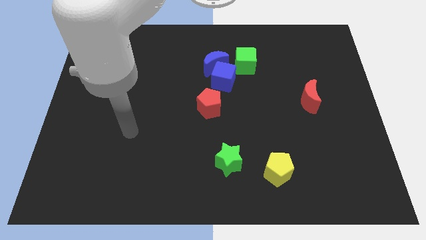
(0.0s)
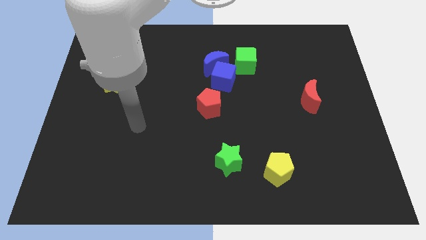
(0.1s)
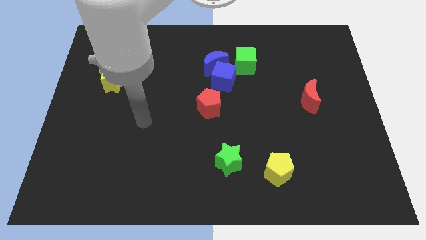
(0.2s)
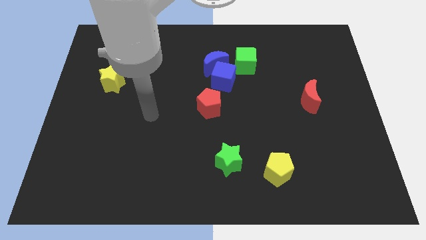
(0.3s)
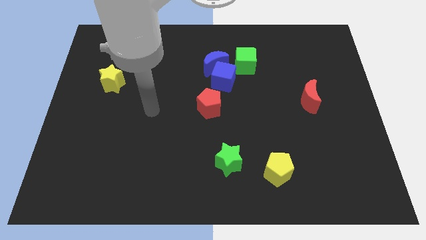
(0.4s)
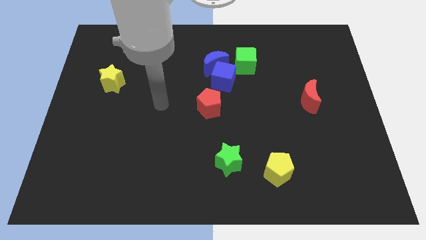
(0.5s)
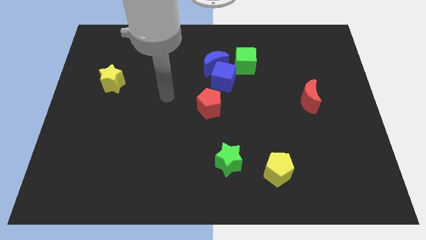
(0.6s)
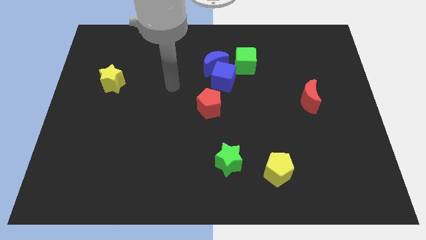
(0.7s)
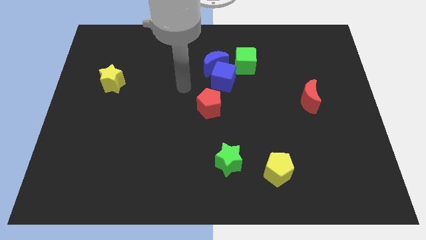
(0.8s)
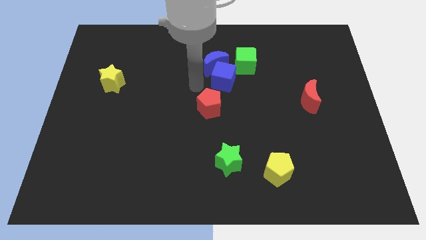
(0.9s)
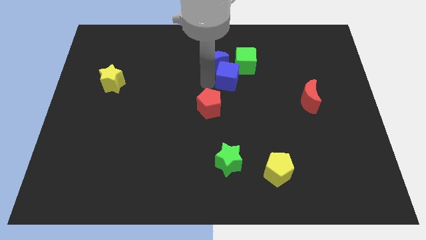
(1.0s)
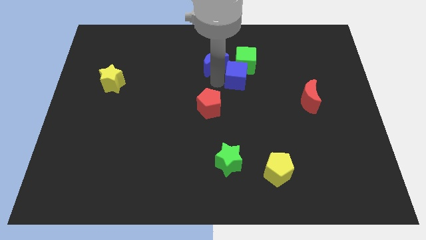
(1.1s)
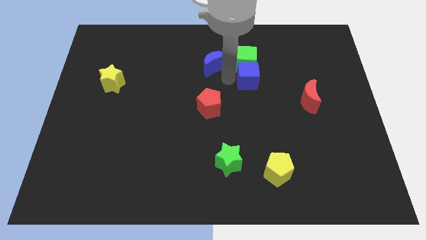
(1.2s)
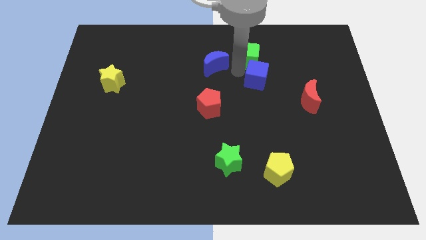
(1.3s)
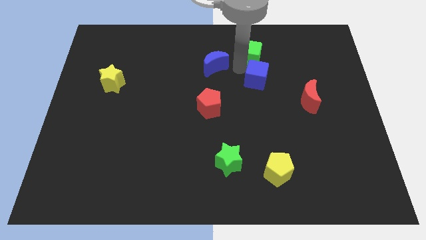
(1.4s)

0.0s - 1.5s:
move the blue moon away from the blue cube and green cube

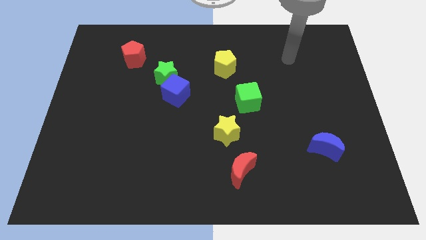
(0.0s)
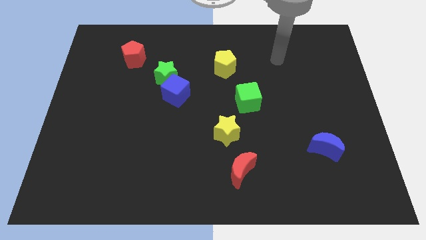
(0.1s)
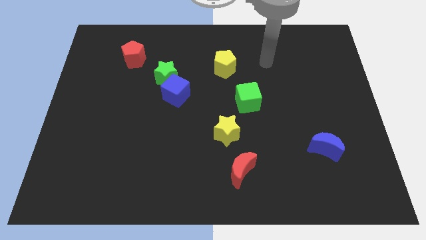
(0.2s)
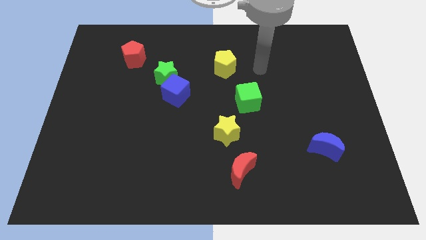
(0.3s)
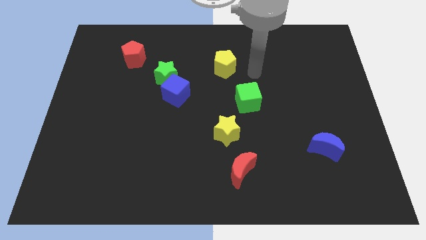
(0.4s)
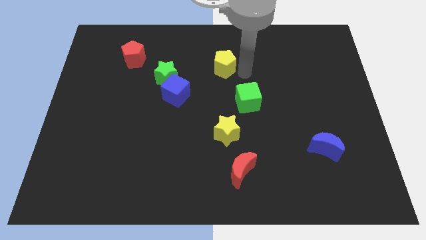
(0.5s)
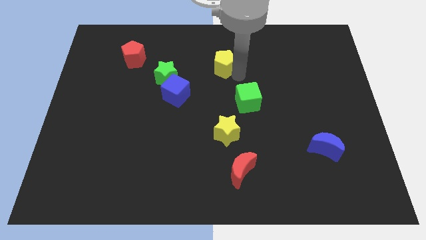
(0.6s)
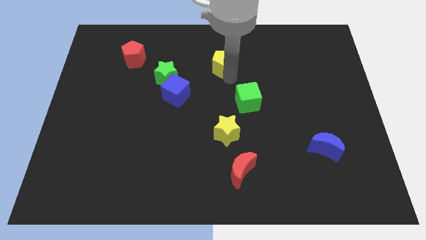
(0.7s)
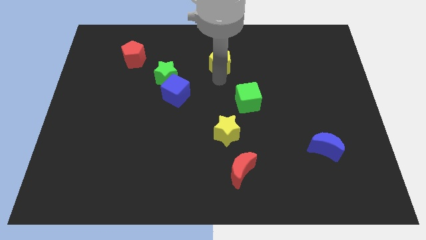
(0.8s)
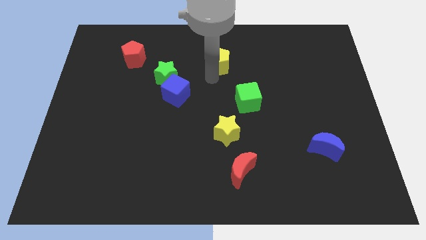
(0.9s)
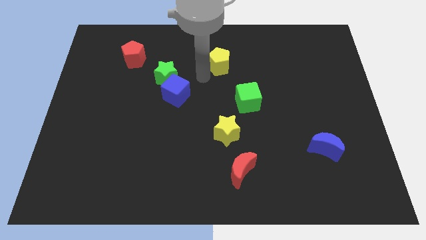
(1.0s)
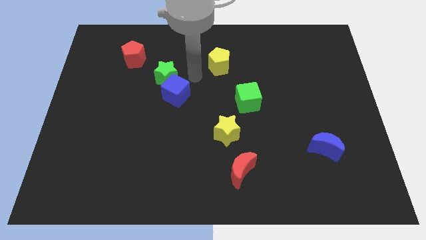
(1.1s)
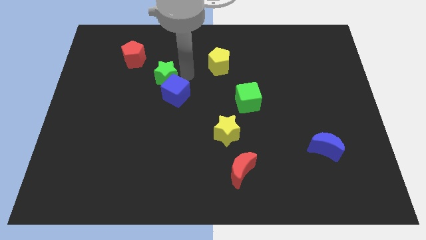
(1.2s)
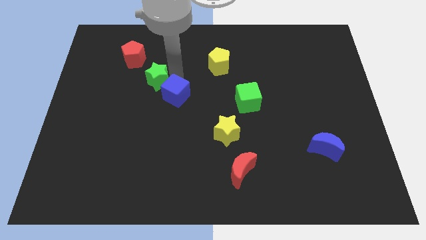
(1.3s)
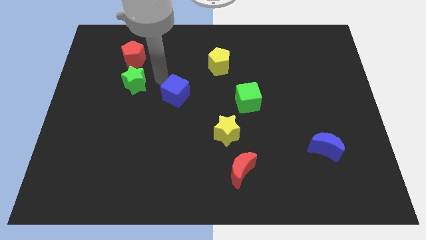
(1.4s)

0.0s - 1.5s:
move the blue cube away from the green star

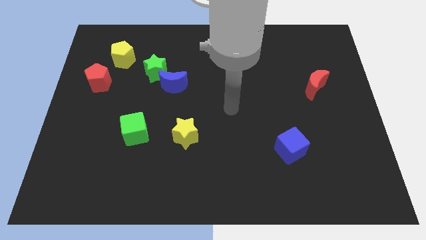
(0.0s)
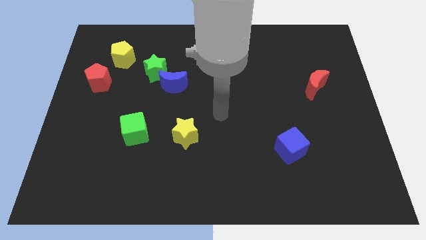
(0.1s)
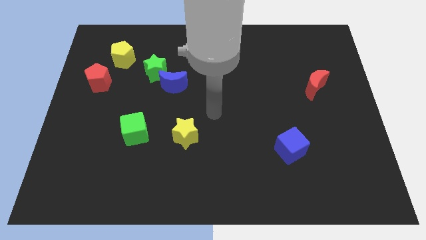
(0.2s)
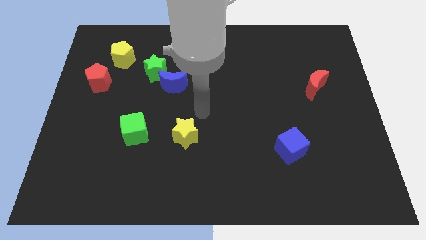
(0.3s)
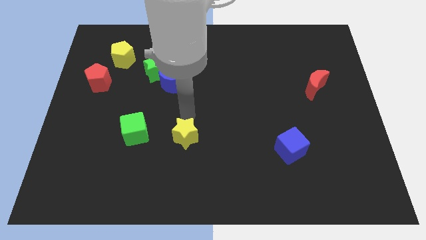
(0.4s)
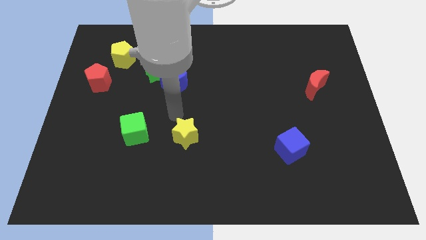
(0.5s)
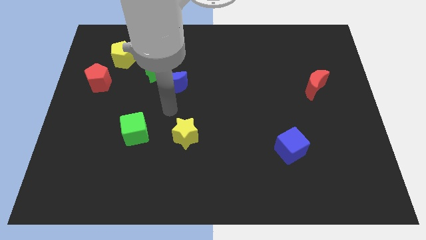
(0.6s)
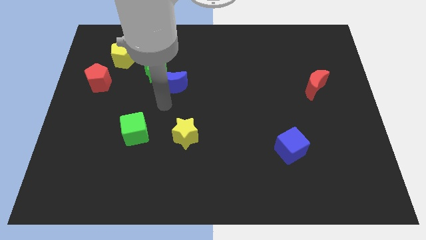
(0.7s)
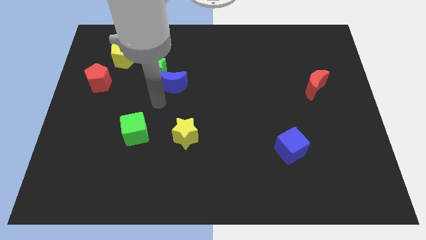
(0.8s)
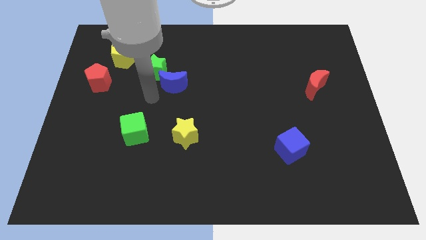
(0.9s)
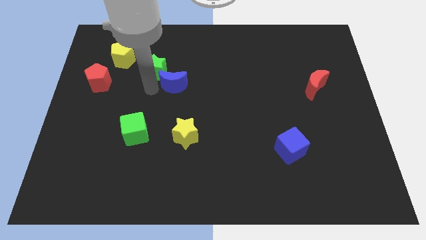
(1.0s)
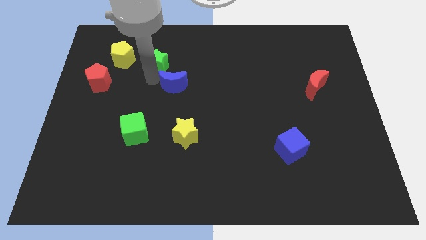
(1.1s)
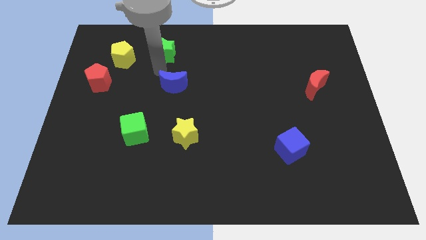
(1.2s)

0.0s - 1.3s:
separate the blue moon from the green star

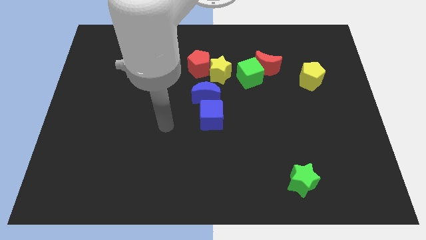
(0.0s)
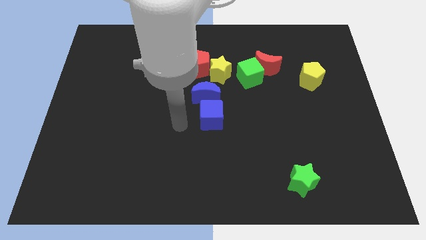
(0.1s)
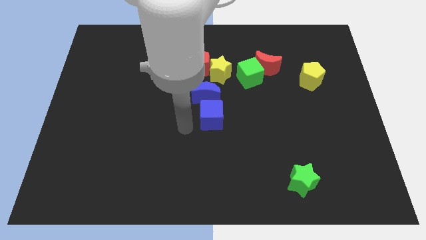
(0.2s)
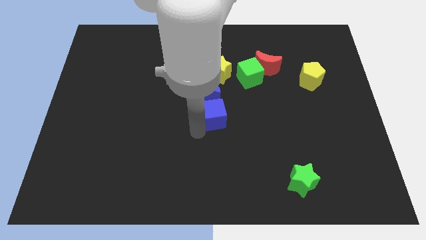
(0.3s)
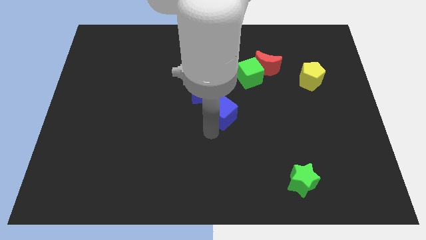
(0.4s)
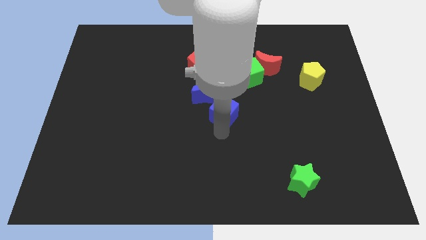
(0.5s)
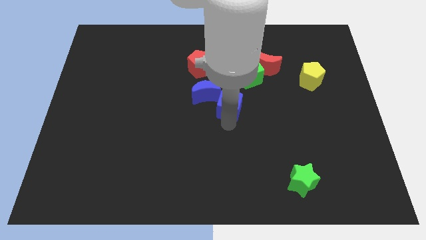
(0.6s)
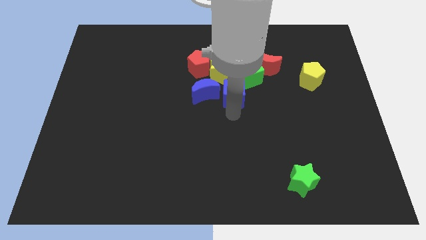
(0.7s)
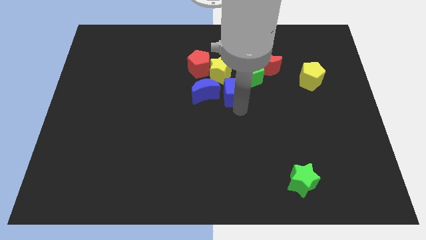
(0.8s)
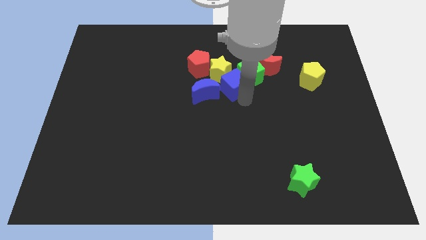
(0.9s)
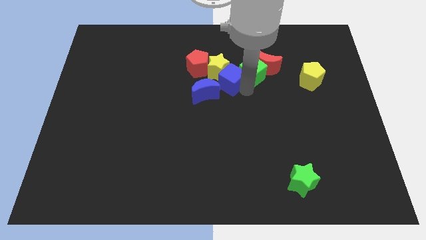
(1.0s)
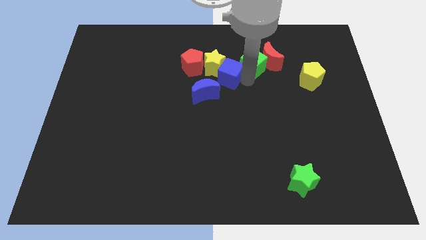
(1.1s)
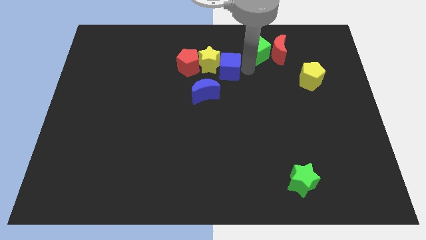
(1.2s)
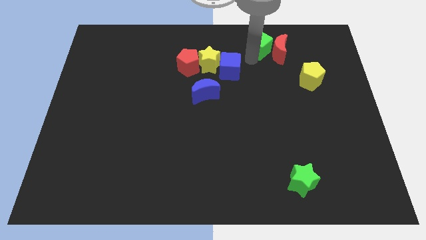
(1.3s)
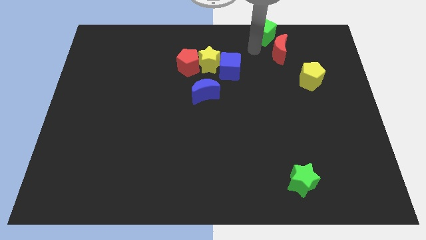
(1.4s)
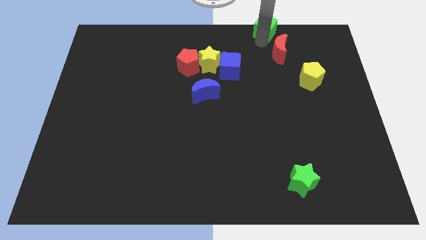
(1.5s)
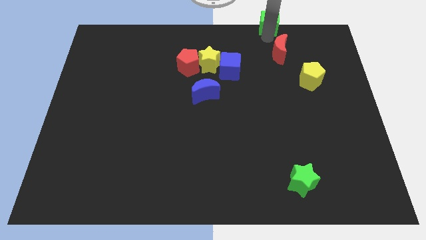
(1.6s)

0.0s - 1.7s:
separate the red moon from the green cube

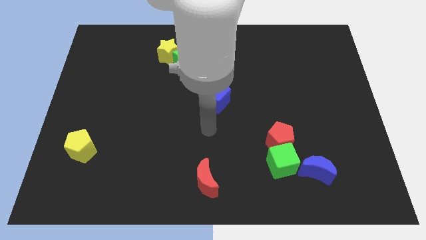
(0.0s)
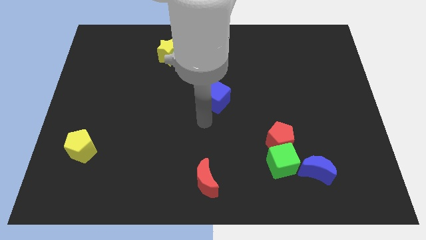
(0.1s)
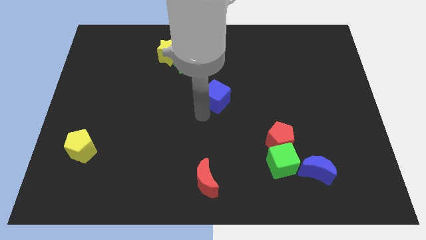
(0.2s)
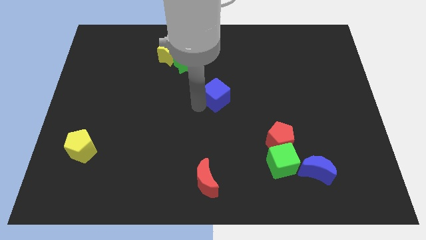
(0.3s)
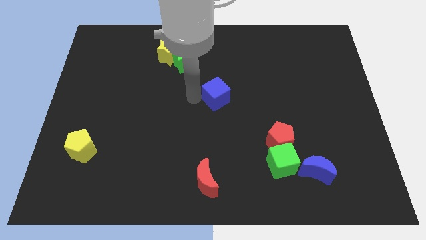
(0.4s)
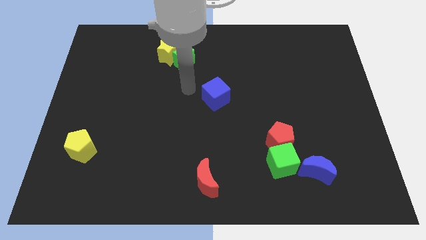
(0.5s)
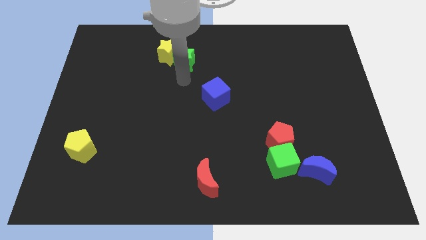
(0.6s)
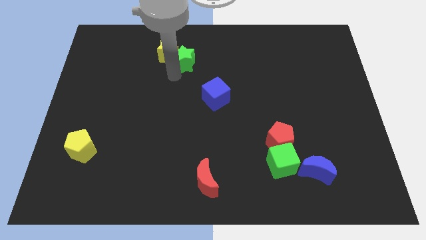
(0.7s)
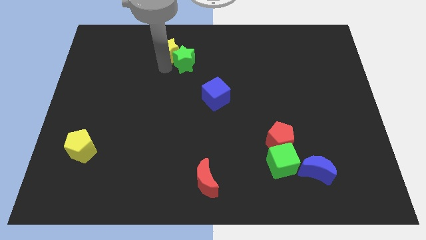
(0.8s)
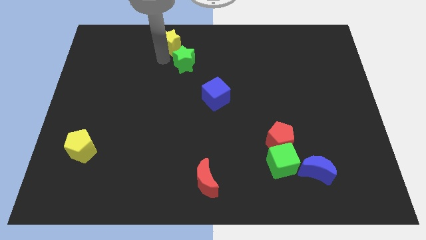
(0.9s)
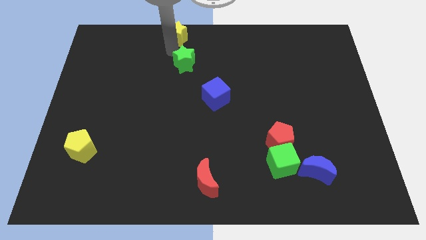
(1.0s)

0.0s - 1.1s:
separate the green star from the yellow star

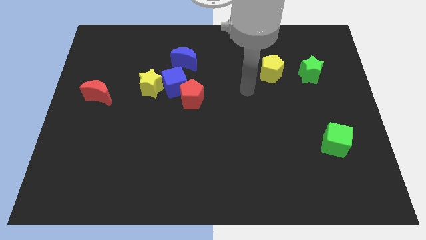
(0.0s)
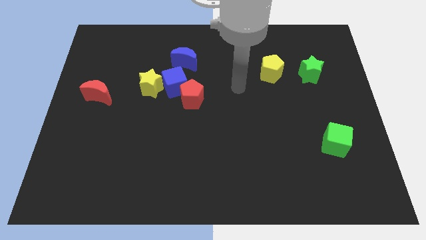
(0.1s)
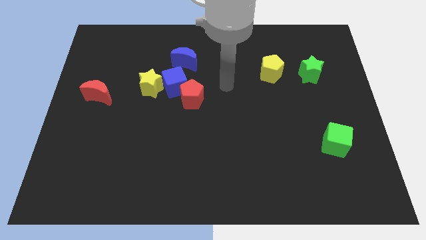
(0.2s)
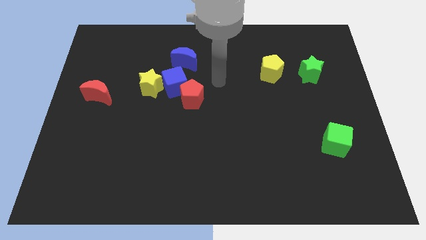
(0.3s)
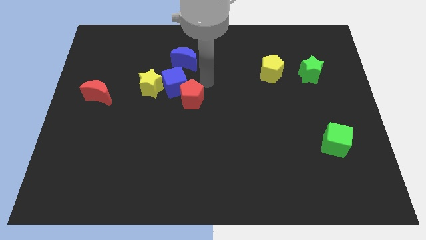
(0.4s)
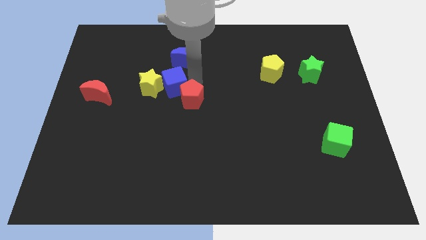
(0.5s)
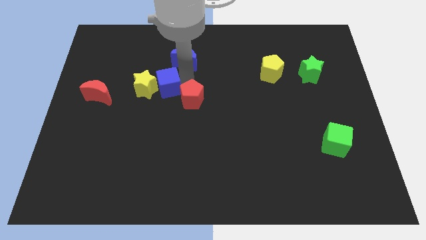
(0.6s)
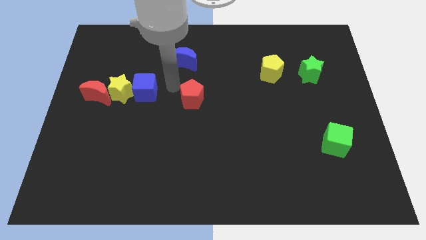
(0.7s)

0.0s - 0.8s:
move the red pentagon away from the blue cube

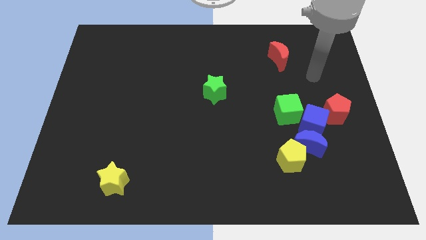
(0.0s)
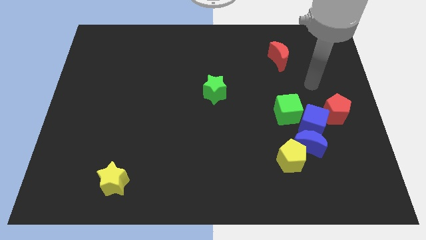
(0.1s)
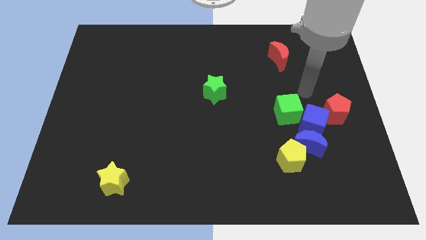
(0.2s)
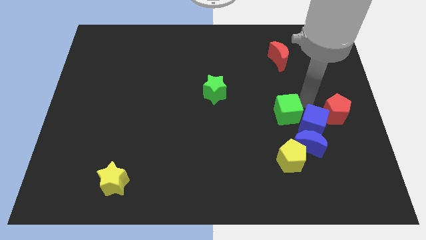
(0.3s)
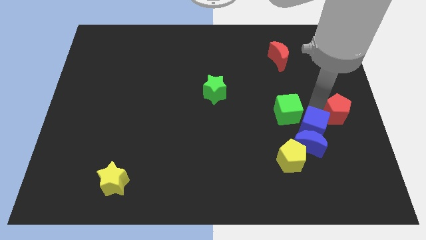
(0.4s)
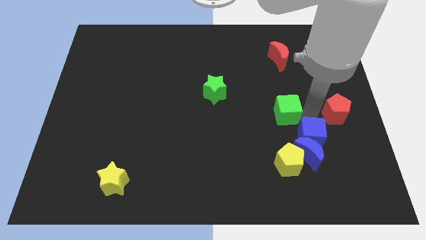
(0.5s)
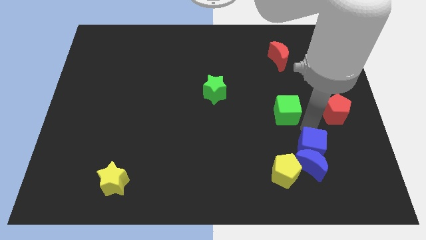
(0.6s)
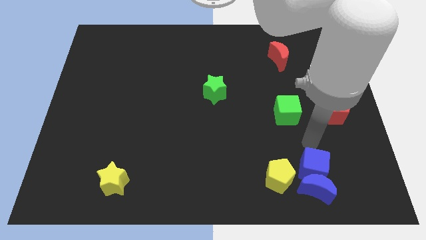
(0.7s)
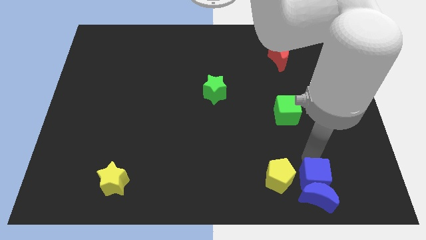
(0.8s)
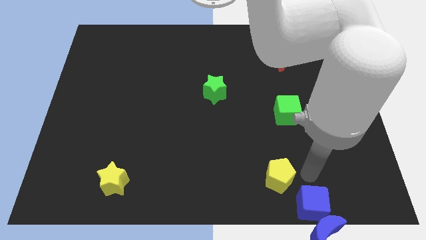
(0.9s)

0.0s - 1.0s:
move the yellow pentagon away from the blue moon

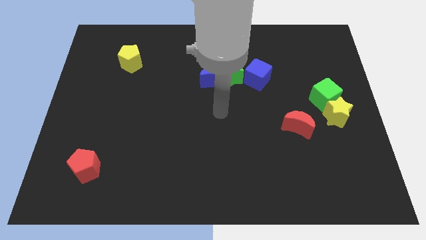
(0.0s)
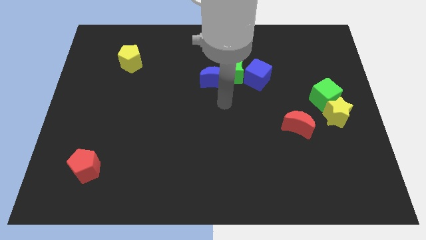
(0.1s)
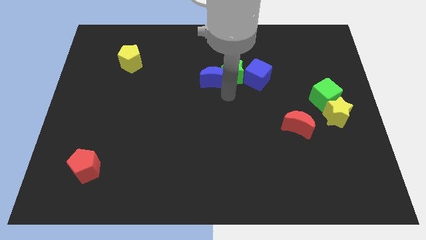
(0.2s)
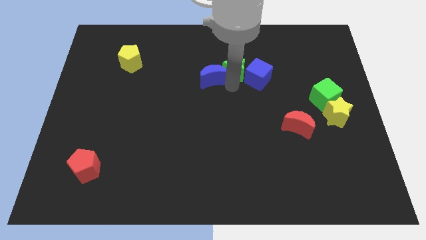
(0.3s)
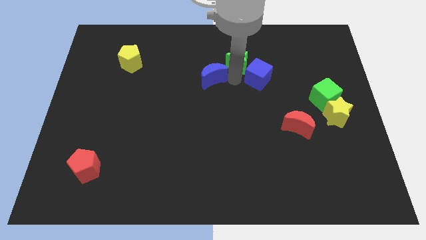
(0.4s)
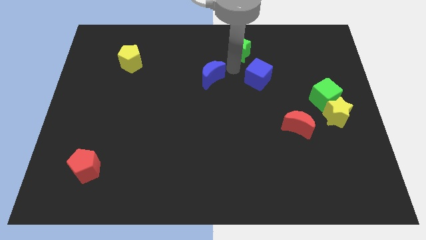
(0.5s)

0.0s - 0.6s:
pull the blue moon apart from the green star
